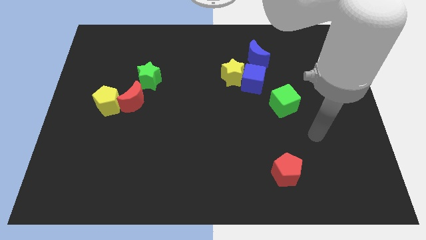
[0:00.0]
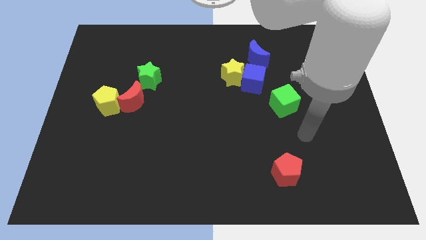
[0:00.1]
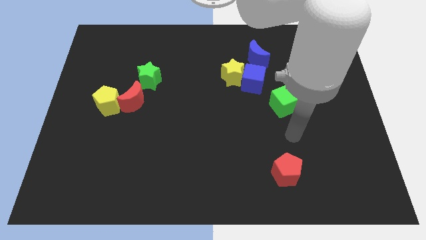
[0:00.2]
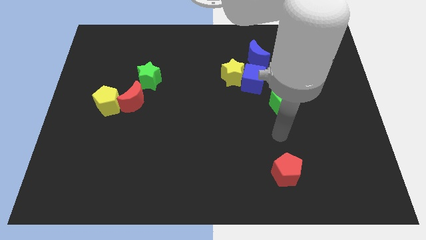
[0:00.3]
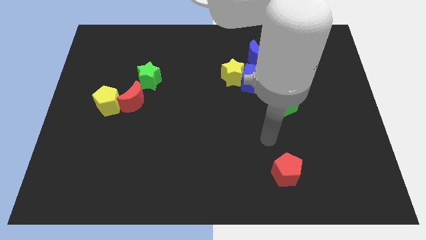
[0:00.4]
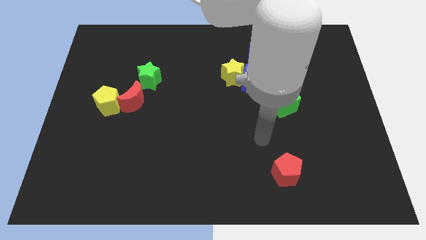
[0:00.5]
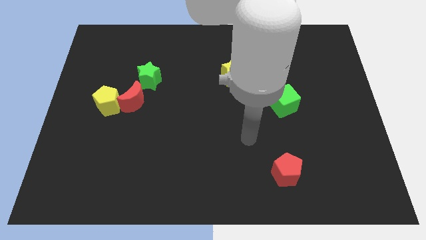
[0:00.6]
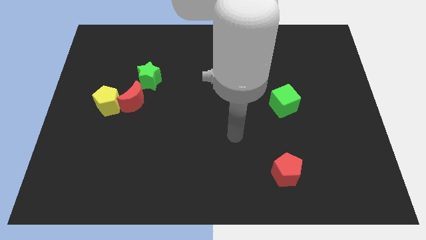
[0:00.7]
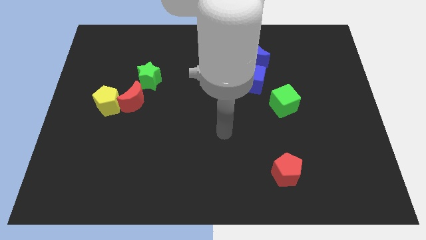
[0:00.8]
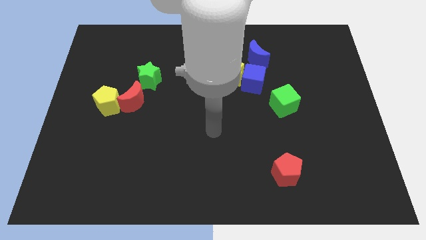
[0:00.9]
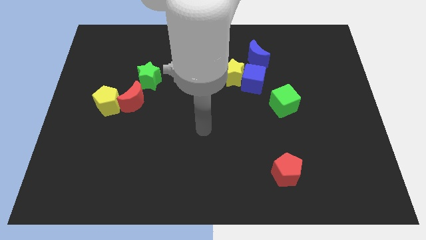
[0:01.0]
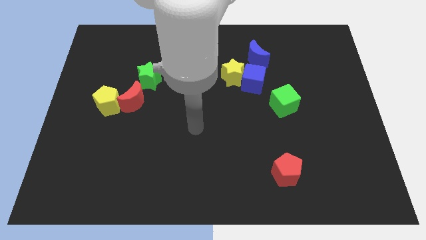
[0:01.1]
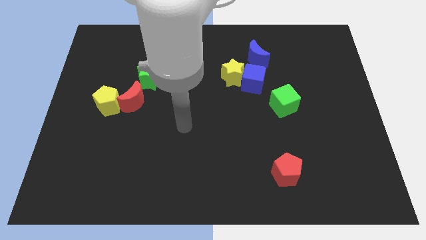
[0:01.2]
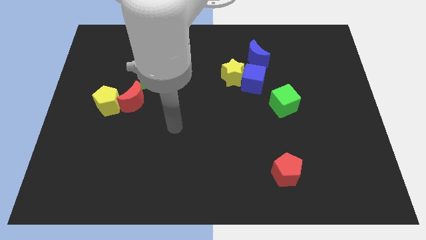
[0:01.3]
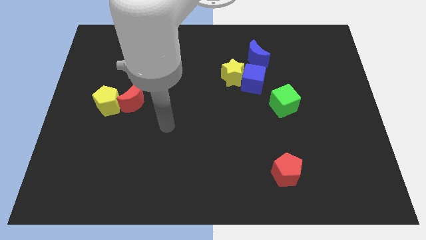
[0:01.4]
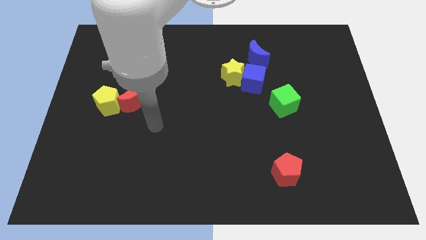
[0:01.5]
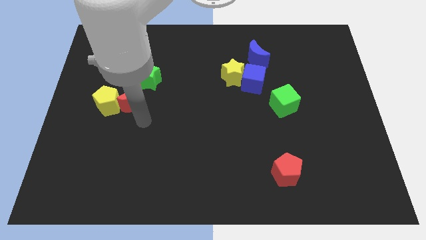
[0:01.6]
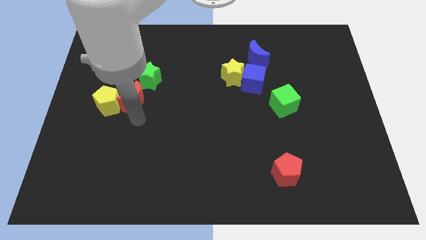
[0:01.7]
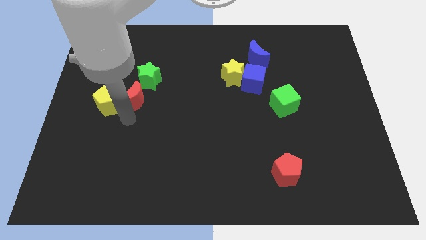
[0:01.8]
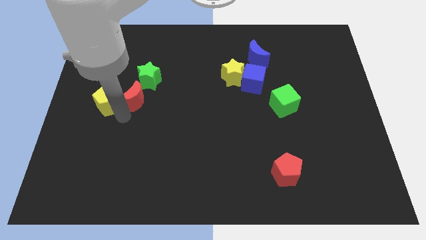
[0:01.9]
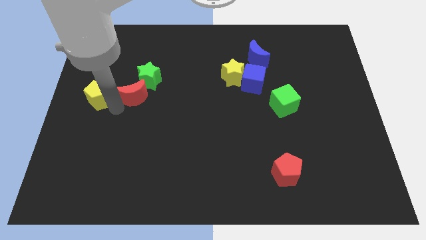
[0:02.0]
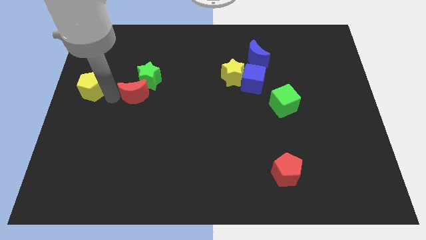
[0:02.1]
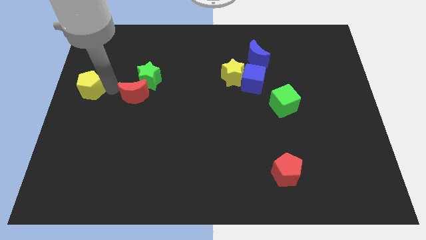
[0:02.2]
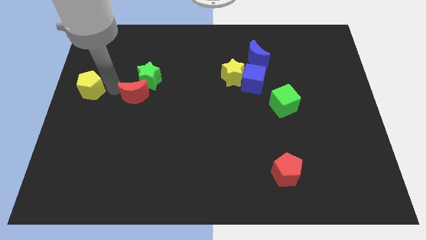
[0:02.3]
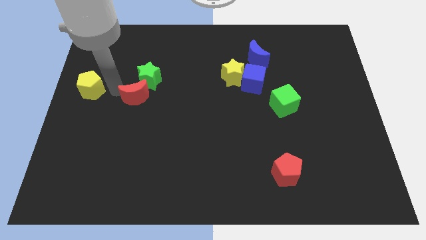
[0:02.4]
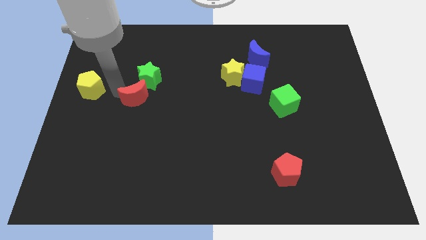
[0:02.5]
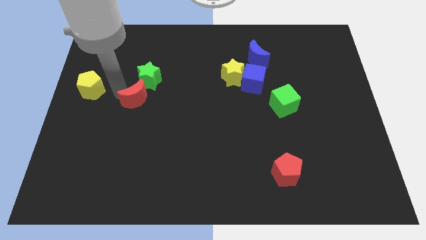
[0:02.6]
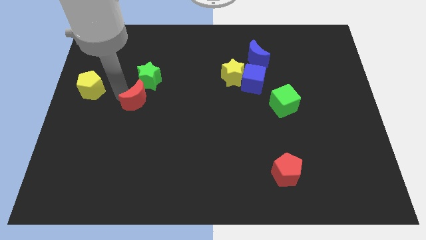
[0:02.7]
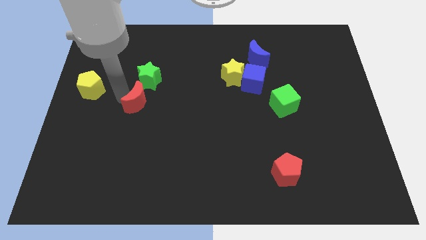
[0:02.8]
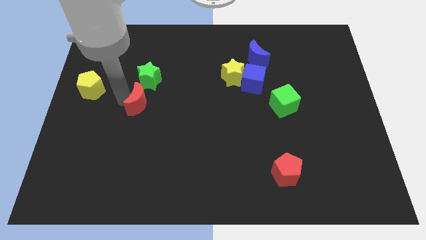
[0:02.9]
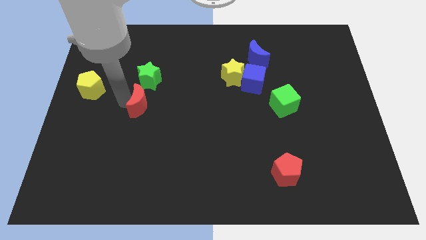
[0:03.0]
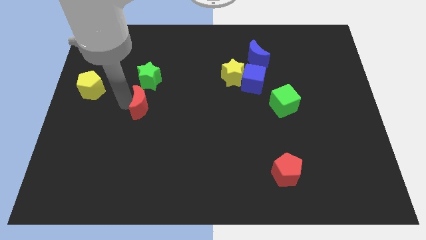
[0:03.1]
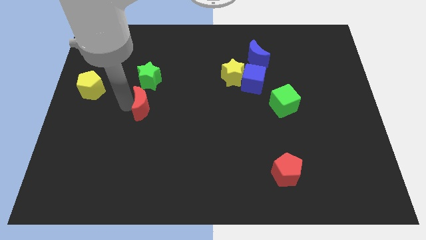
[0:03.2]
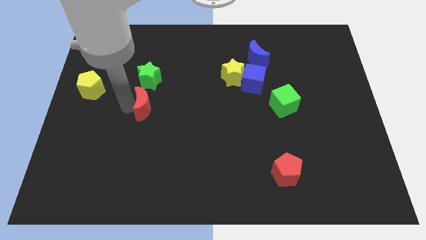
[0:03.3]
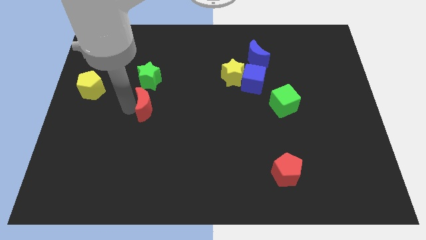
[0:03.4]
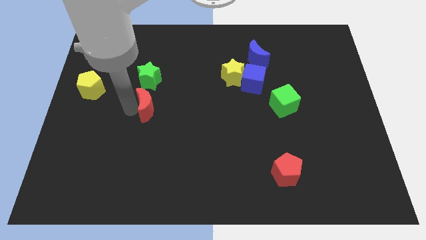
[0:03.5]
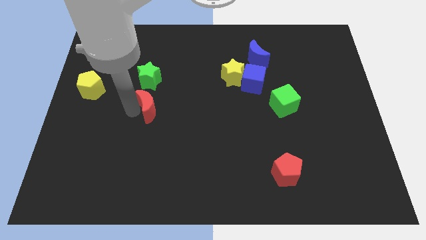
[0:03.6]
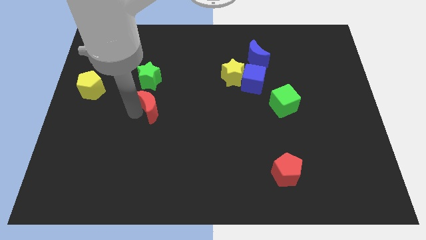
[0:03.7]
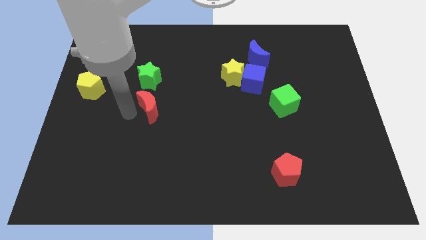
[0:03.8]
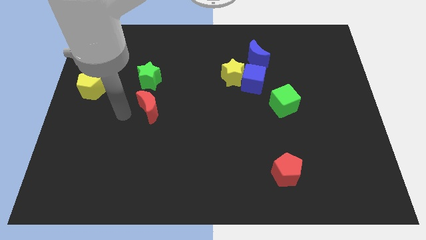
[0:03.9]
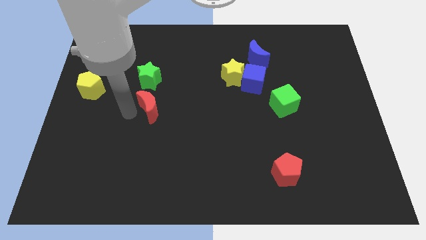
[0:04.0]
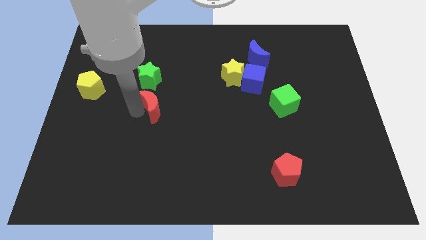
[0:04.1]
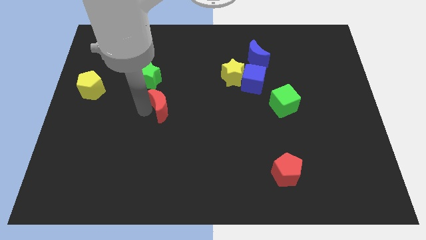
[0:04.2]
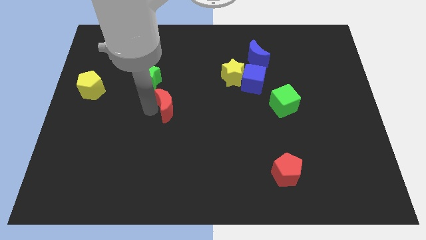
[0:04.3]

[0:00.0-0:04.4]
slide the red moon a bit to the right

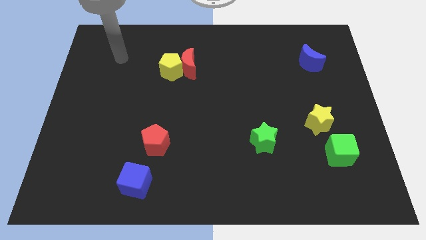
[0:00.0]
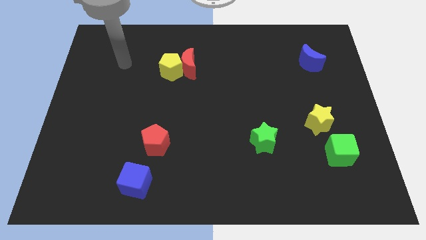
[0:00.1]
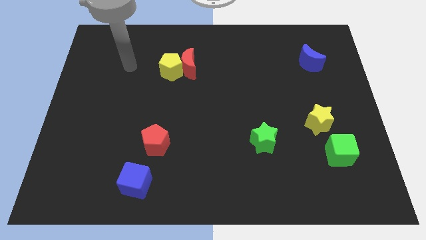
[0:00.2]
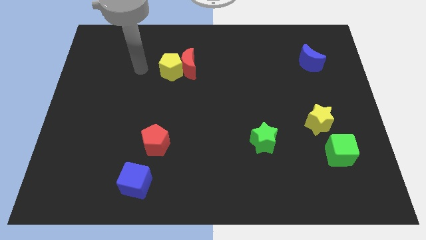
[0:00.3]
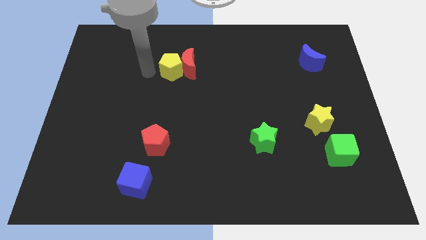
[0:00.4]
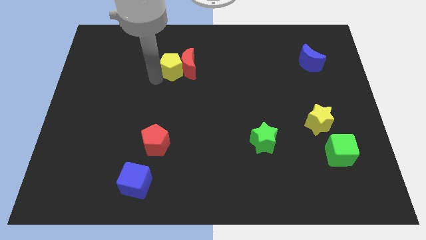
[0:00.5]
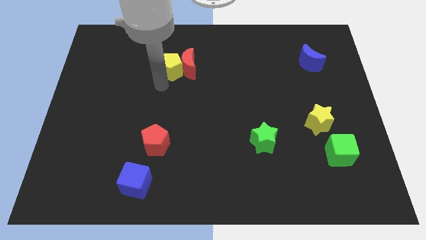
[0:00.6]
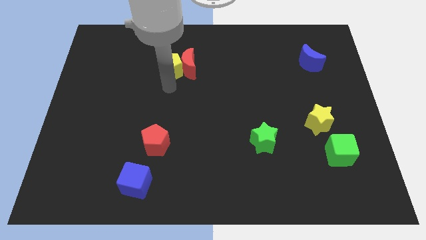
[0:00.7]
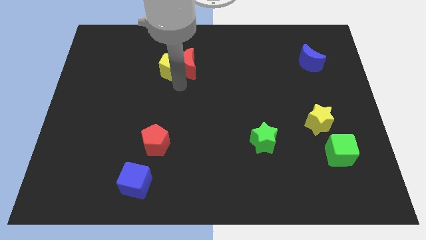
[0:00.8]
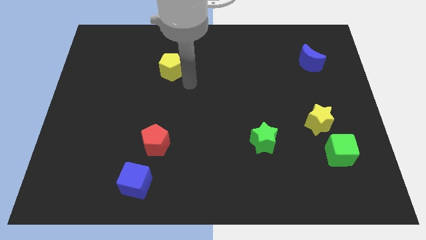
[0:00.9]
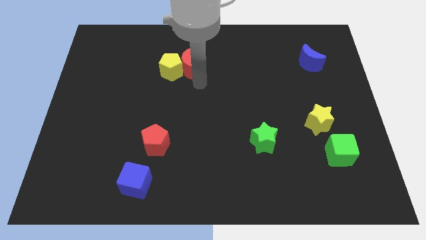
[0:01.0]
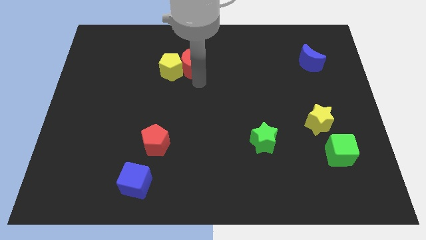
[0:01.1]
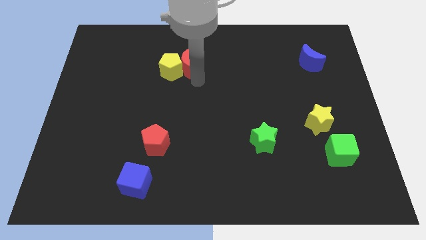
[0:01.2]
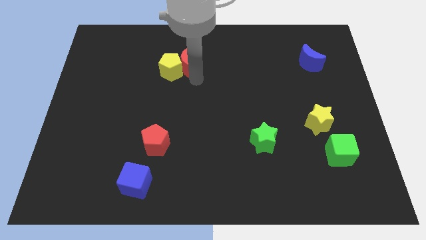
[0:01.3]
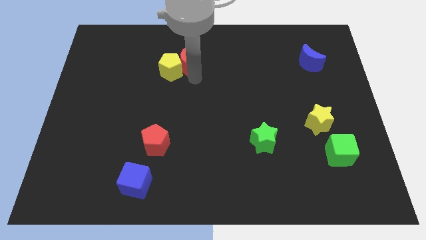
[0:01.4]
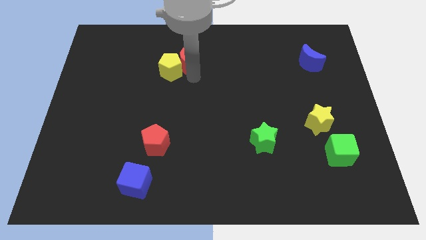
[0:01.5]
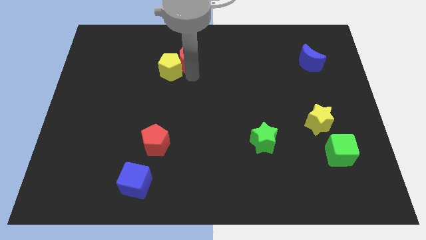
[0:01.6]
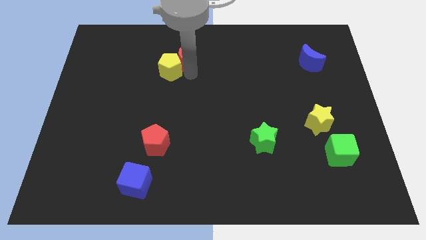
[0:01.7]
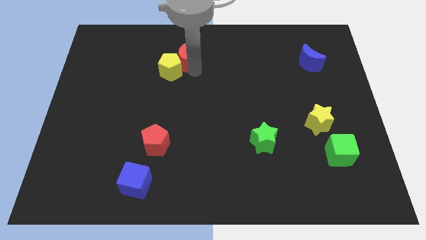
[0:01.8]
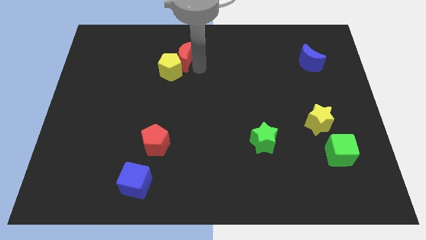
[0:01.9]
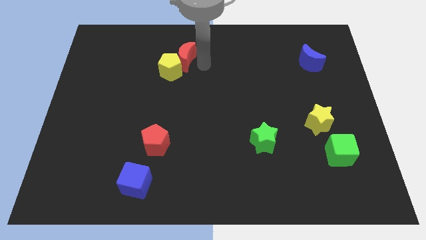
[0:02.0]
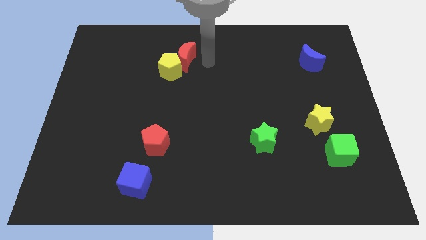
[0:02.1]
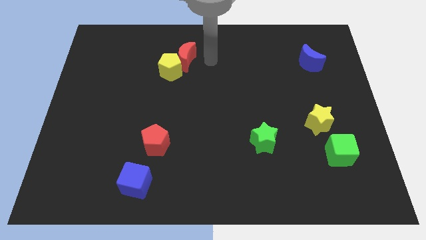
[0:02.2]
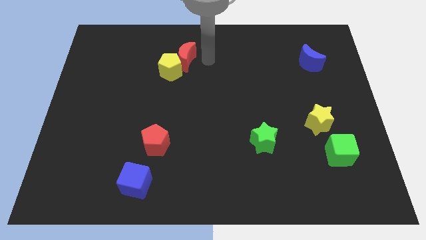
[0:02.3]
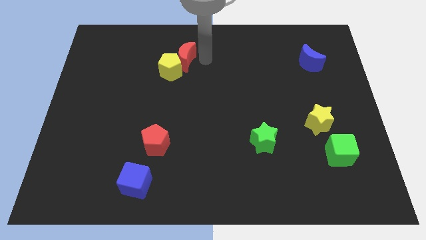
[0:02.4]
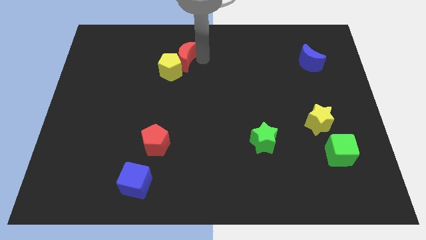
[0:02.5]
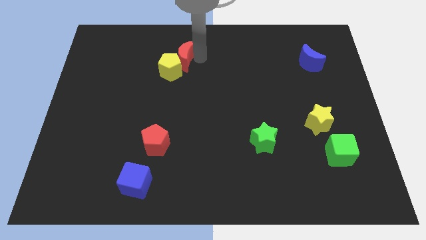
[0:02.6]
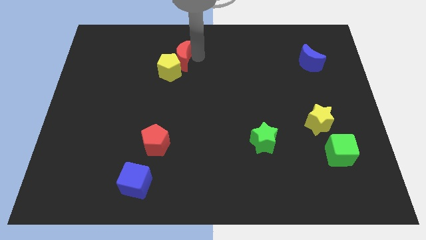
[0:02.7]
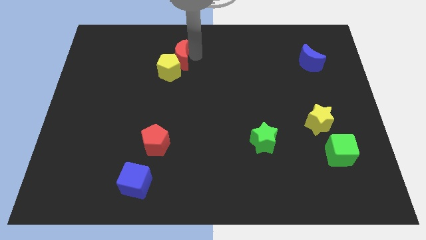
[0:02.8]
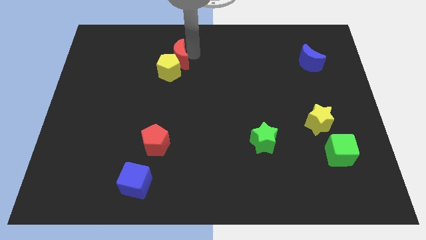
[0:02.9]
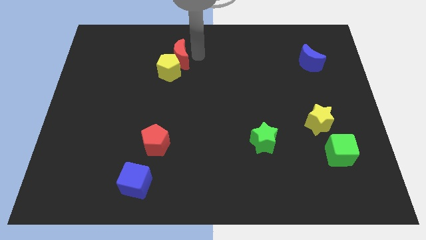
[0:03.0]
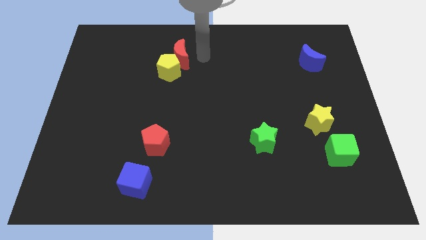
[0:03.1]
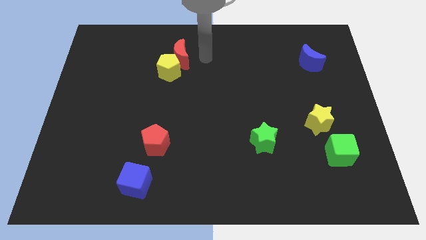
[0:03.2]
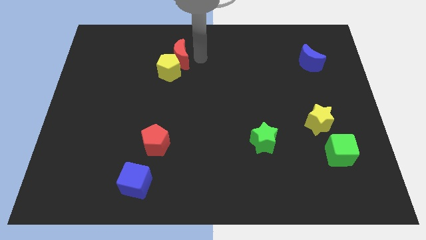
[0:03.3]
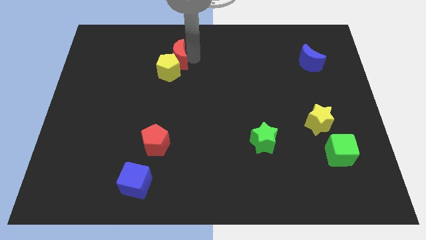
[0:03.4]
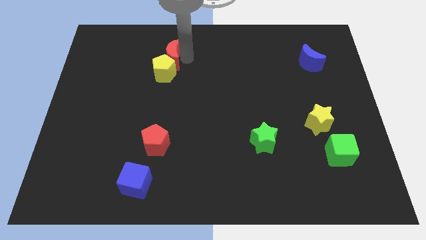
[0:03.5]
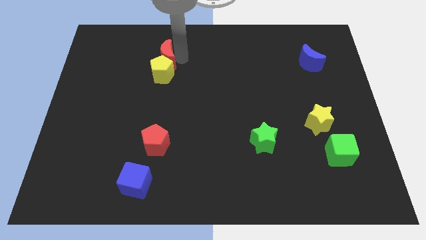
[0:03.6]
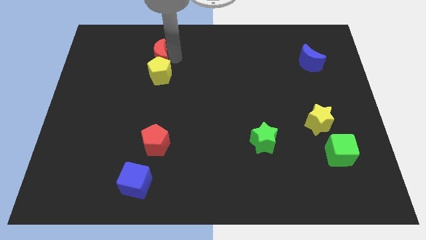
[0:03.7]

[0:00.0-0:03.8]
move the red moon a little left
